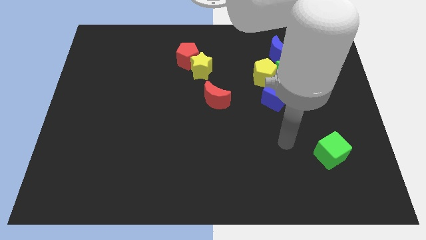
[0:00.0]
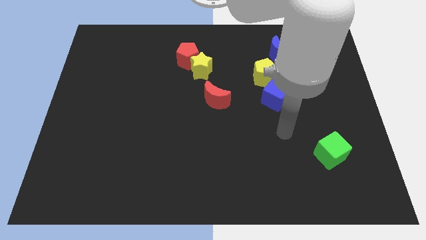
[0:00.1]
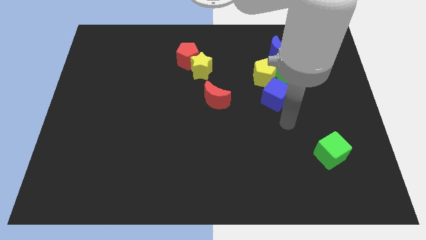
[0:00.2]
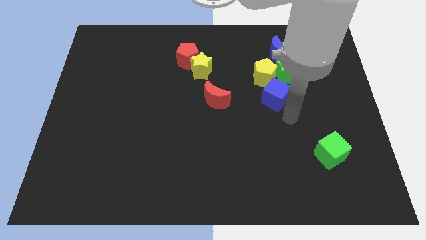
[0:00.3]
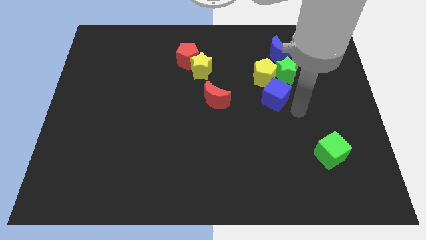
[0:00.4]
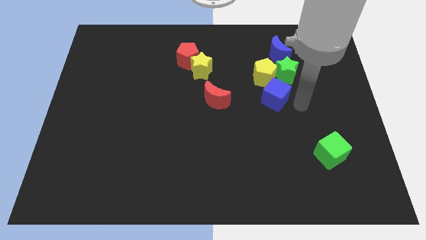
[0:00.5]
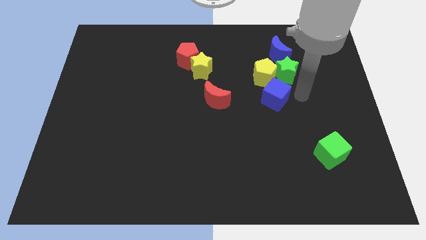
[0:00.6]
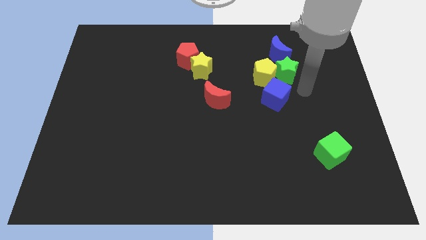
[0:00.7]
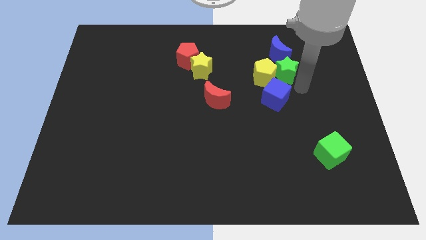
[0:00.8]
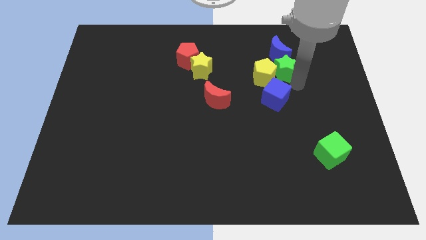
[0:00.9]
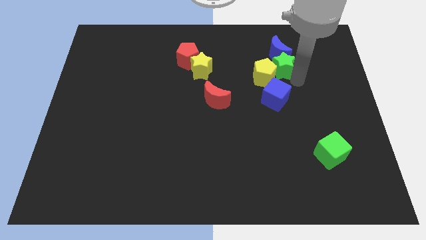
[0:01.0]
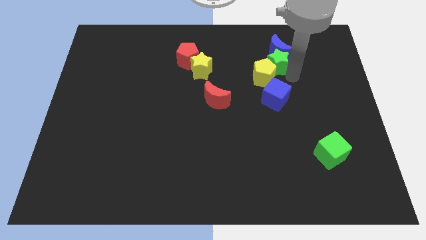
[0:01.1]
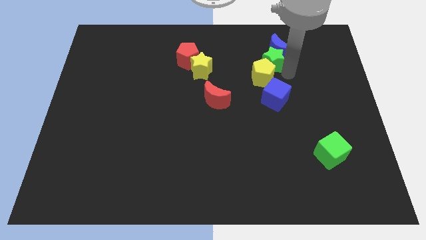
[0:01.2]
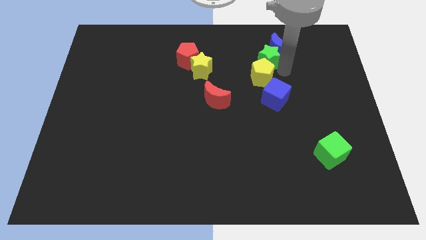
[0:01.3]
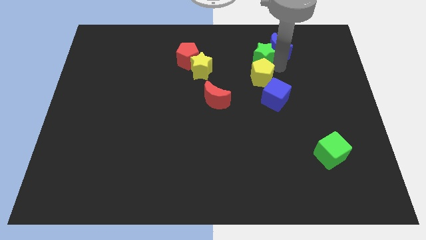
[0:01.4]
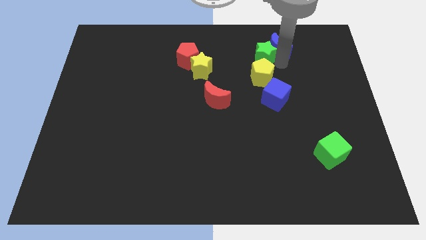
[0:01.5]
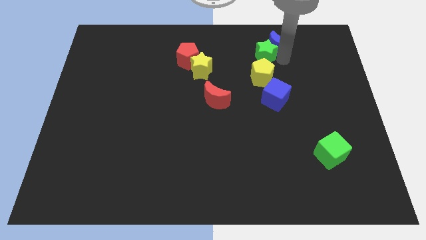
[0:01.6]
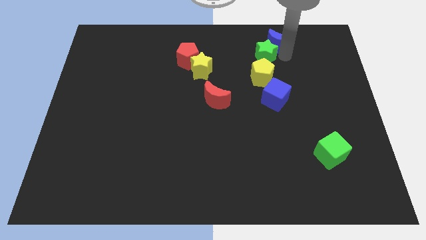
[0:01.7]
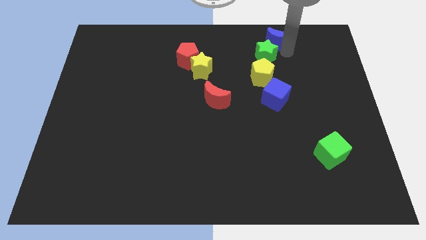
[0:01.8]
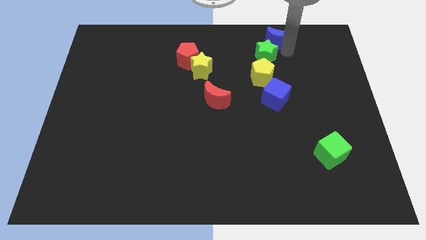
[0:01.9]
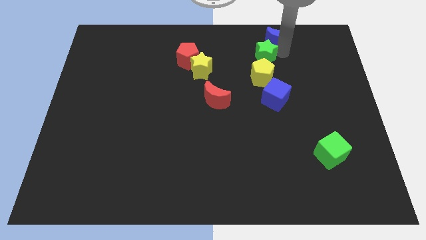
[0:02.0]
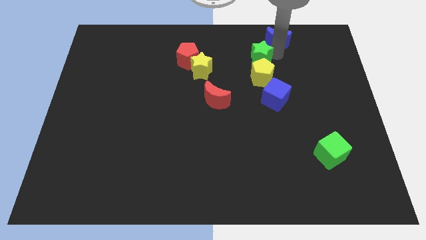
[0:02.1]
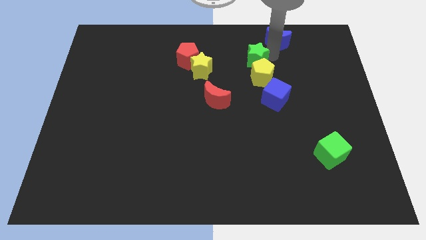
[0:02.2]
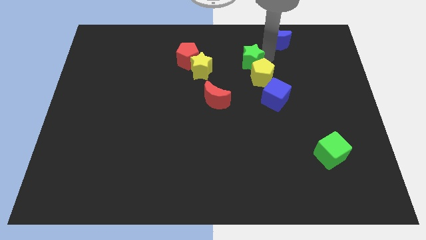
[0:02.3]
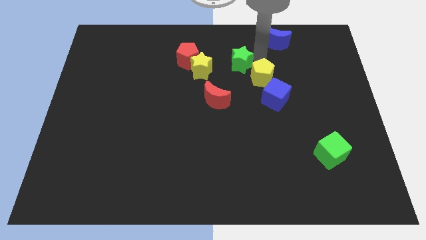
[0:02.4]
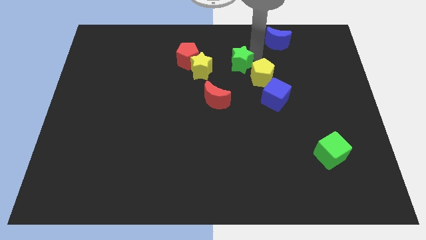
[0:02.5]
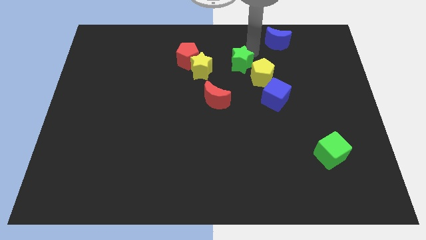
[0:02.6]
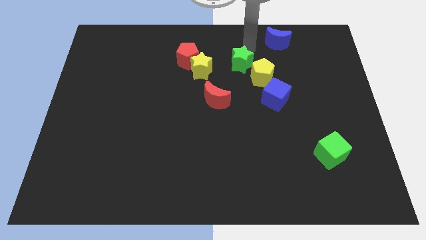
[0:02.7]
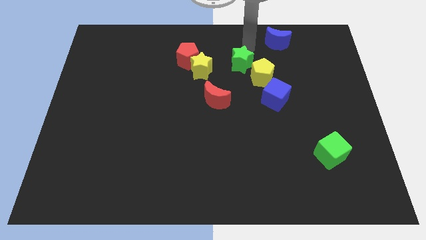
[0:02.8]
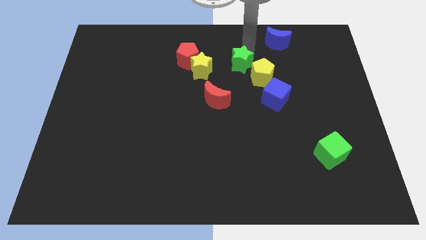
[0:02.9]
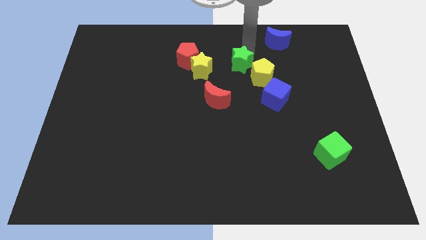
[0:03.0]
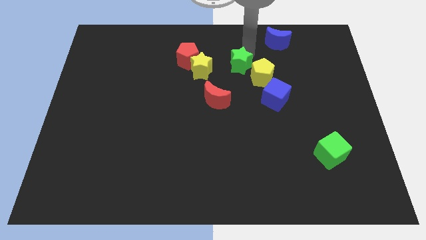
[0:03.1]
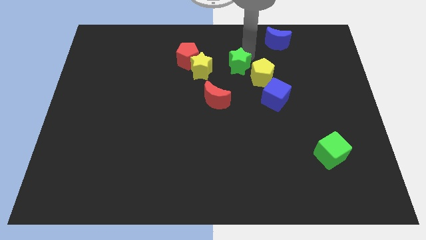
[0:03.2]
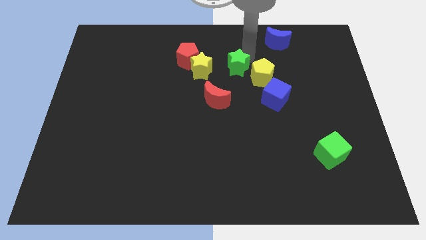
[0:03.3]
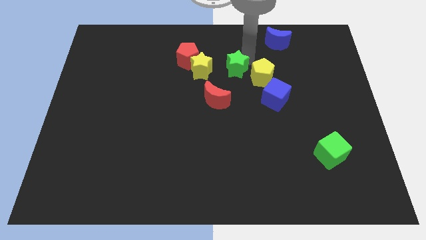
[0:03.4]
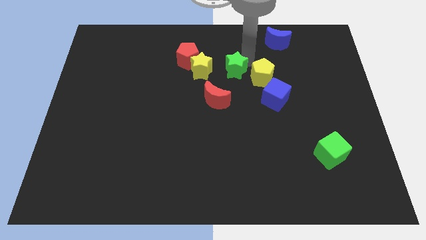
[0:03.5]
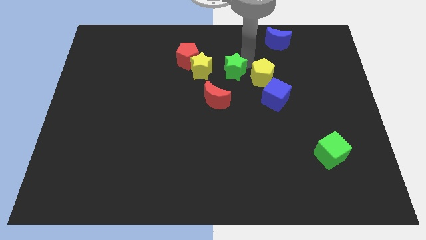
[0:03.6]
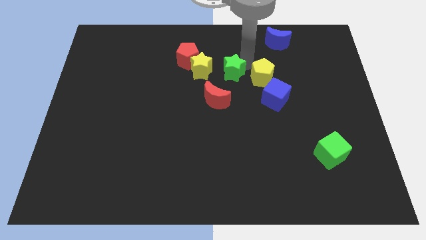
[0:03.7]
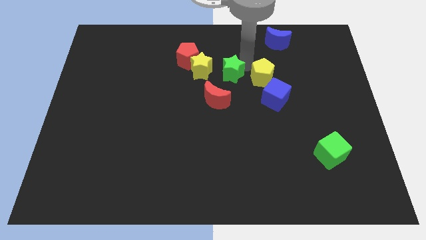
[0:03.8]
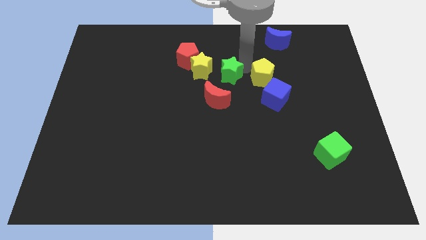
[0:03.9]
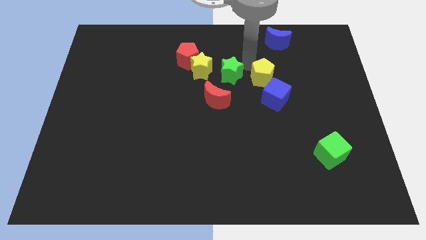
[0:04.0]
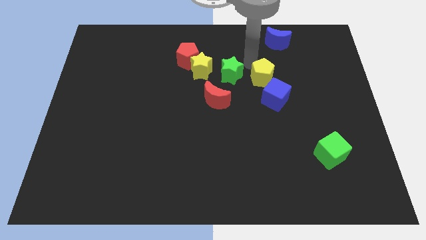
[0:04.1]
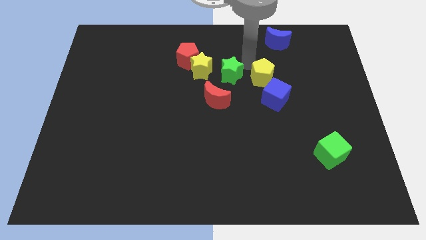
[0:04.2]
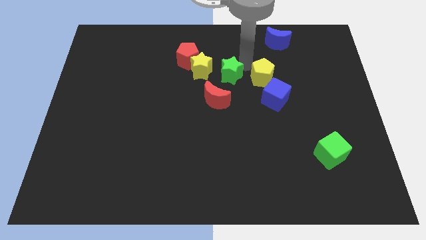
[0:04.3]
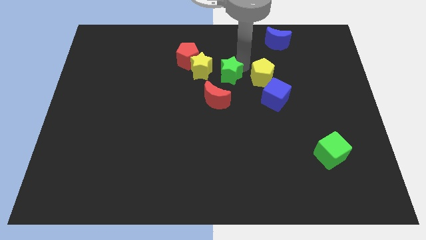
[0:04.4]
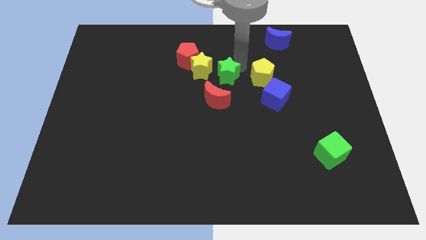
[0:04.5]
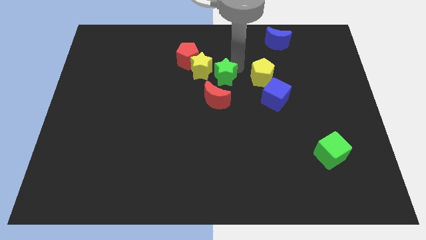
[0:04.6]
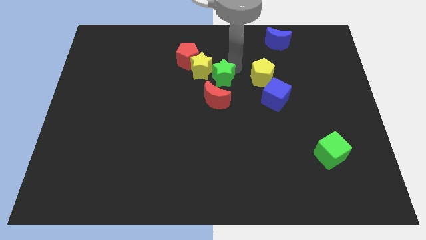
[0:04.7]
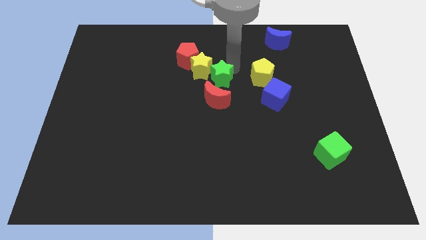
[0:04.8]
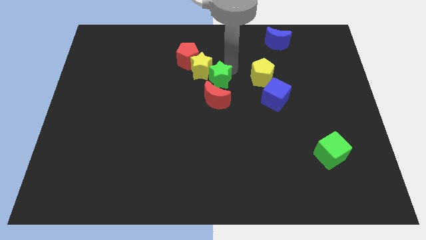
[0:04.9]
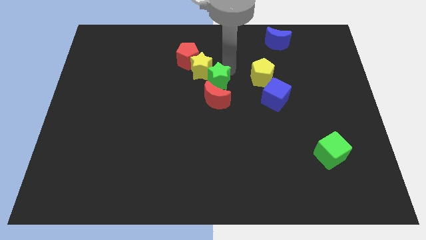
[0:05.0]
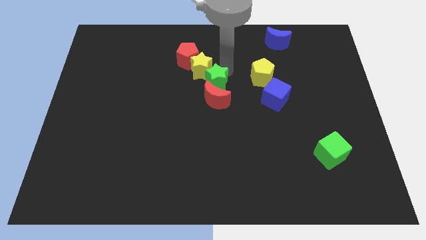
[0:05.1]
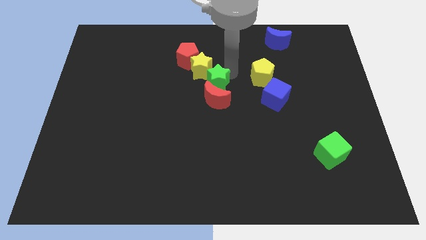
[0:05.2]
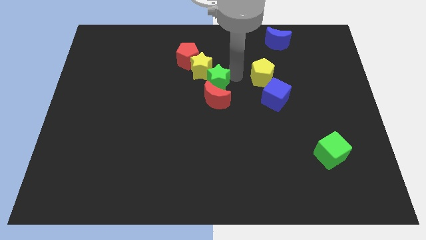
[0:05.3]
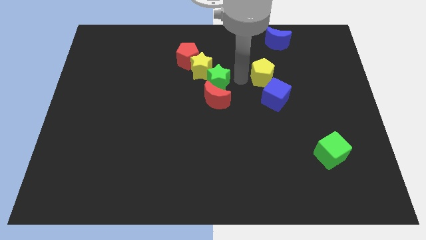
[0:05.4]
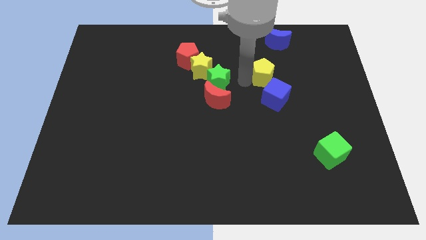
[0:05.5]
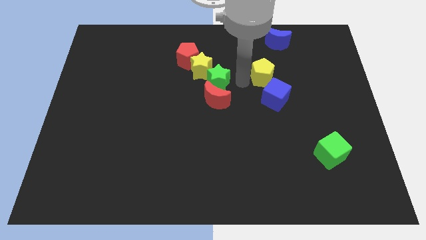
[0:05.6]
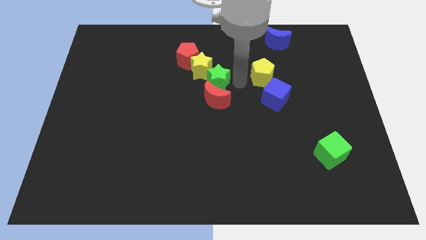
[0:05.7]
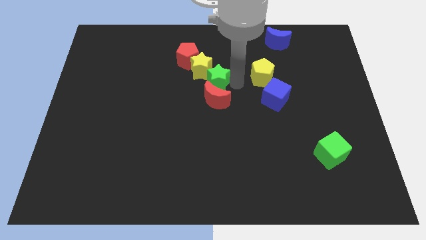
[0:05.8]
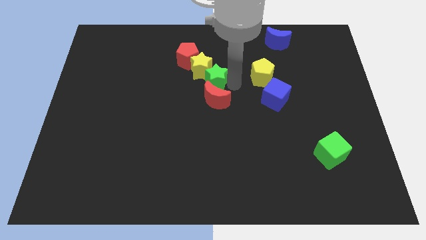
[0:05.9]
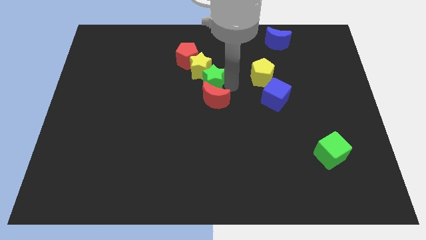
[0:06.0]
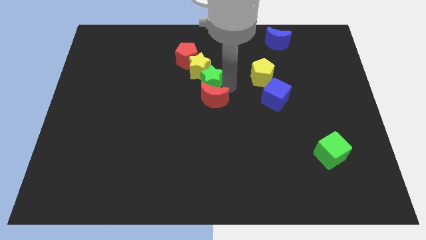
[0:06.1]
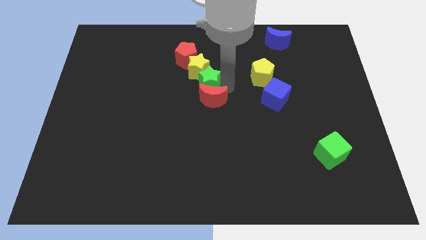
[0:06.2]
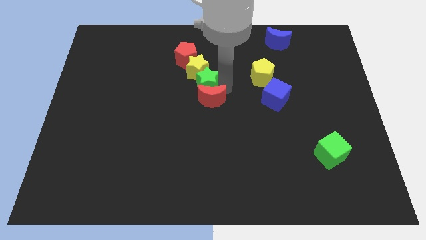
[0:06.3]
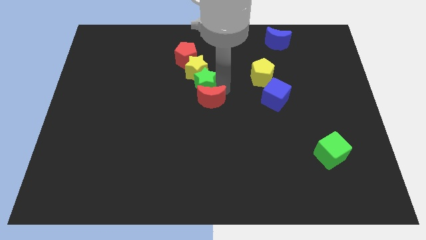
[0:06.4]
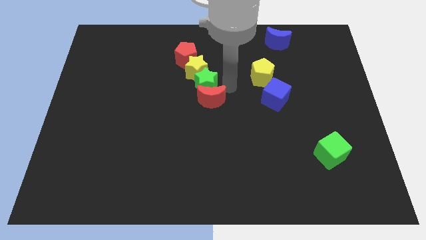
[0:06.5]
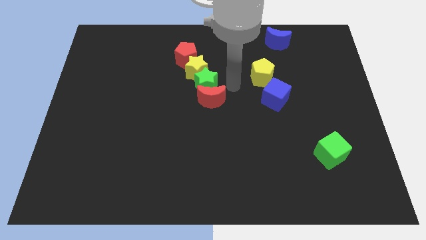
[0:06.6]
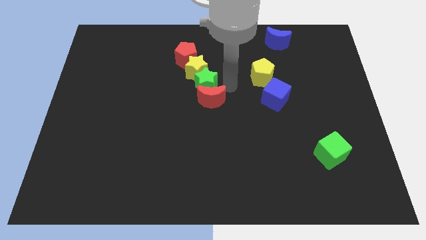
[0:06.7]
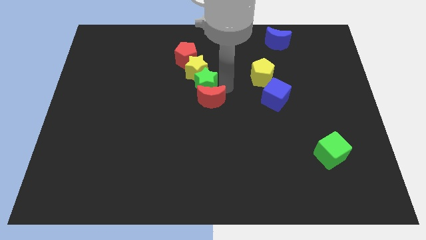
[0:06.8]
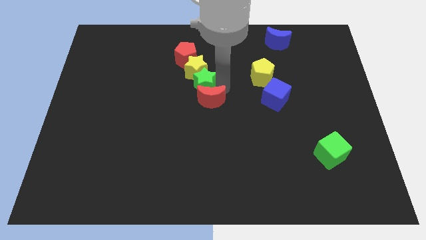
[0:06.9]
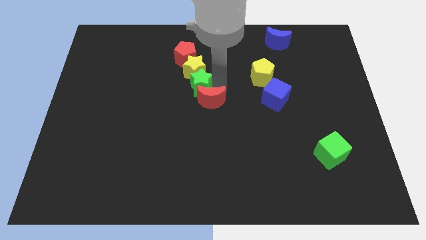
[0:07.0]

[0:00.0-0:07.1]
push the green star left

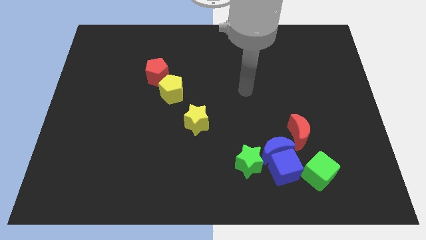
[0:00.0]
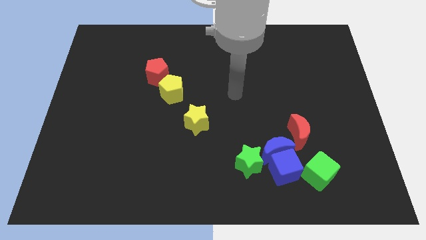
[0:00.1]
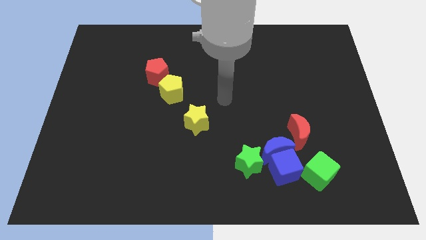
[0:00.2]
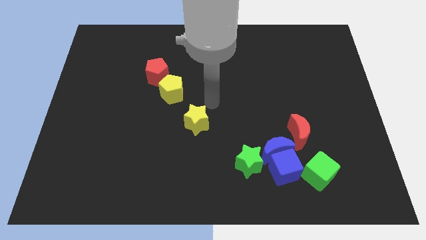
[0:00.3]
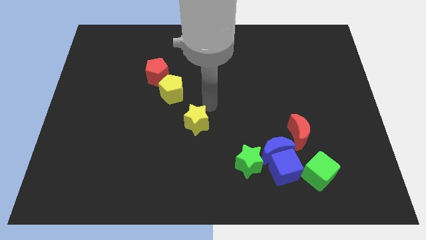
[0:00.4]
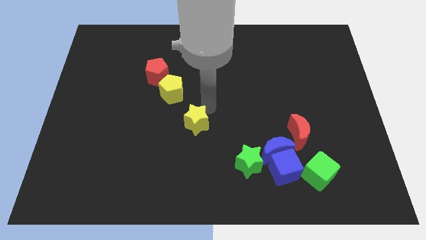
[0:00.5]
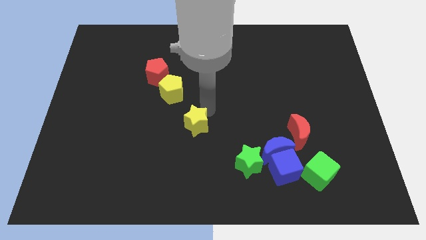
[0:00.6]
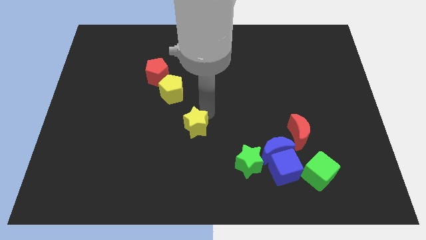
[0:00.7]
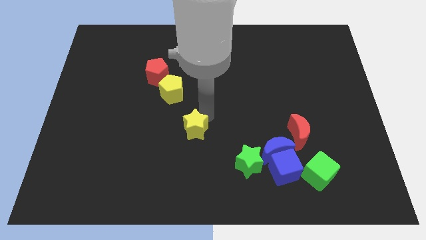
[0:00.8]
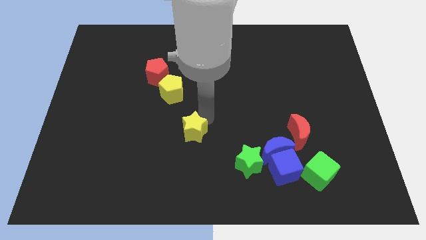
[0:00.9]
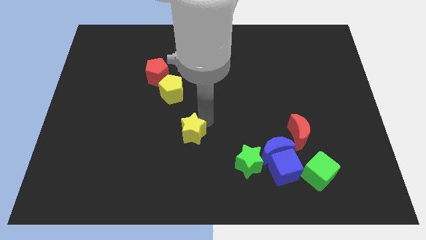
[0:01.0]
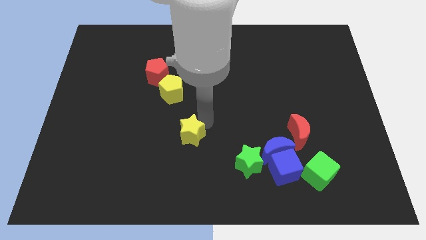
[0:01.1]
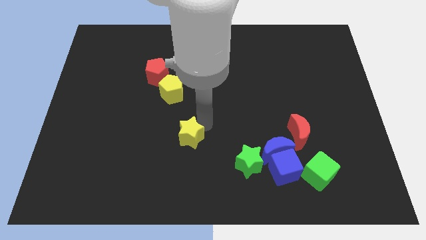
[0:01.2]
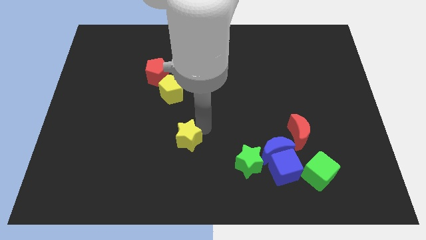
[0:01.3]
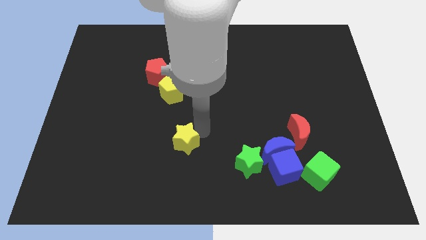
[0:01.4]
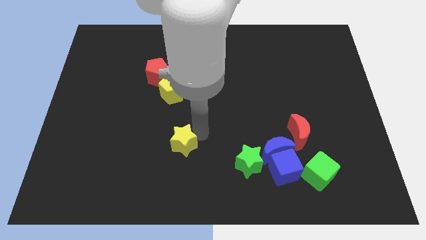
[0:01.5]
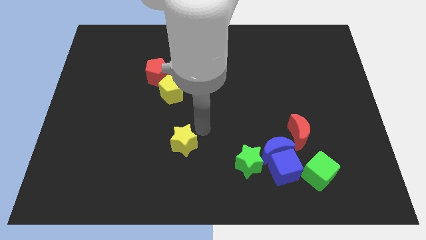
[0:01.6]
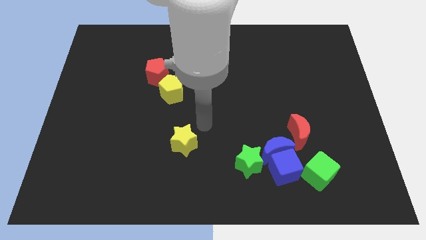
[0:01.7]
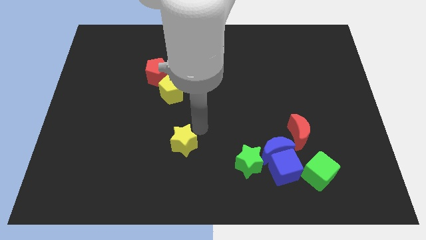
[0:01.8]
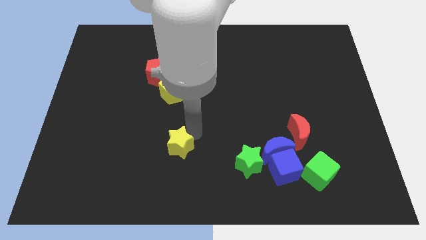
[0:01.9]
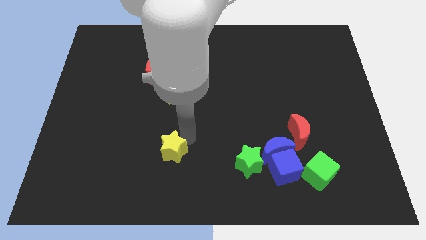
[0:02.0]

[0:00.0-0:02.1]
push the yellow star a bit down and to the left
